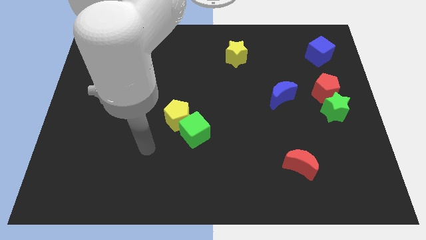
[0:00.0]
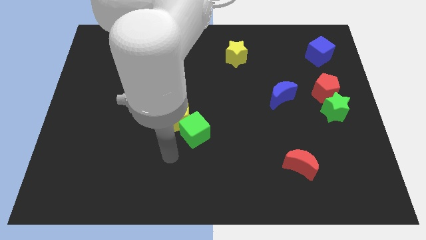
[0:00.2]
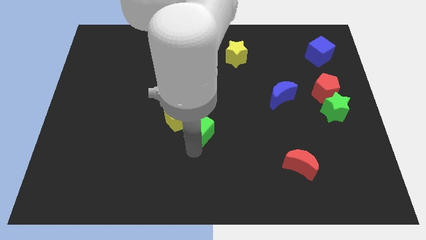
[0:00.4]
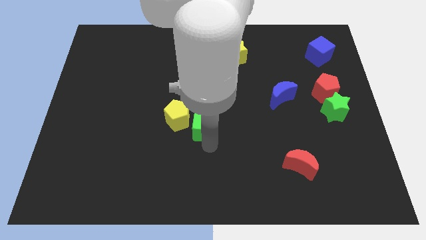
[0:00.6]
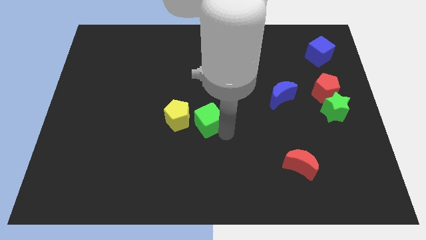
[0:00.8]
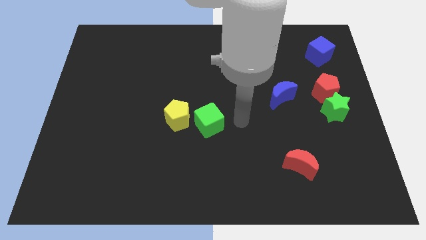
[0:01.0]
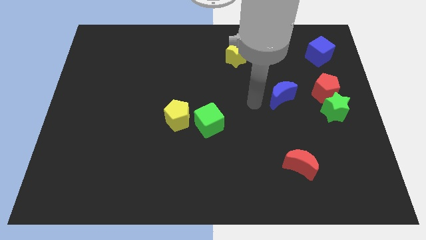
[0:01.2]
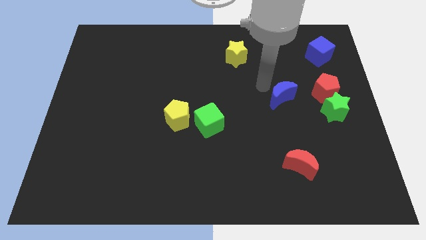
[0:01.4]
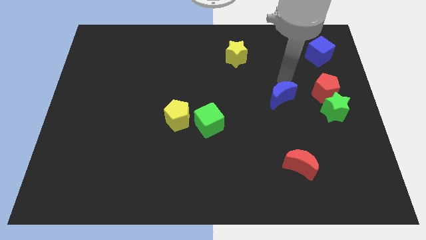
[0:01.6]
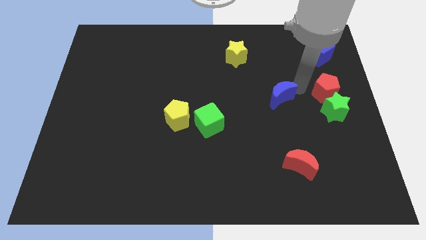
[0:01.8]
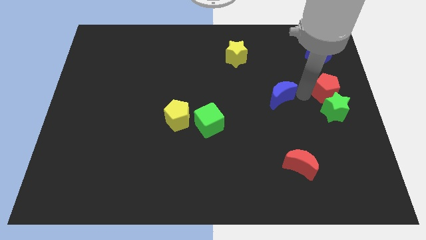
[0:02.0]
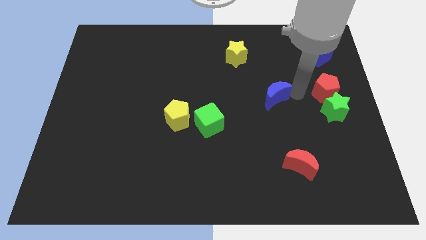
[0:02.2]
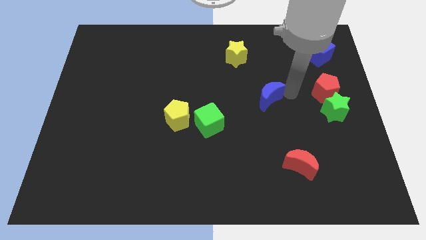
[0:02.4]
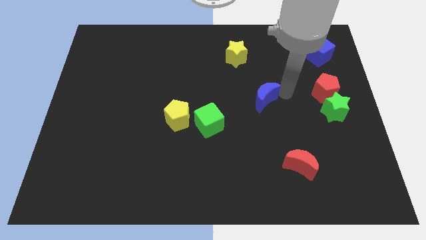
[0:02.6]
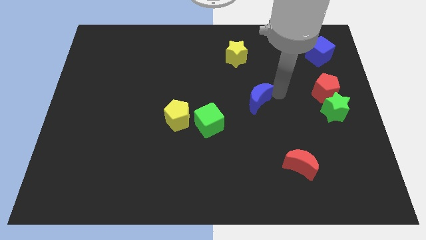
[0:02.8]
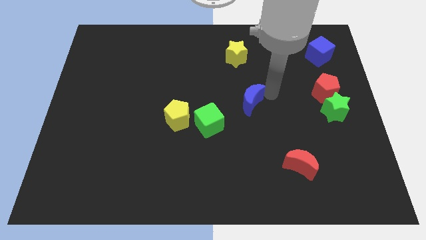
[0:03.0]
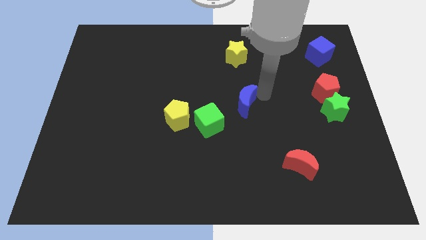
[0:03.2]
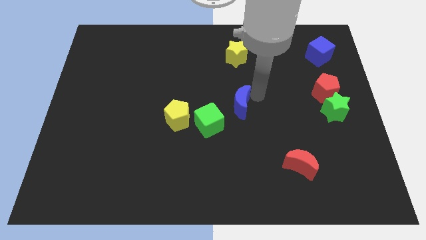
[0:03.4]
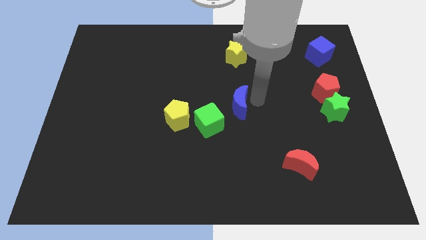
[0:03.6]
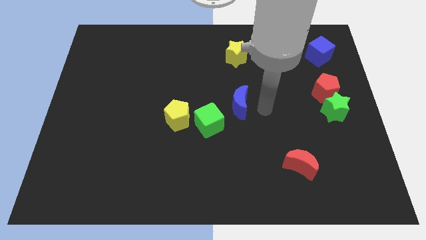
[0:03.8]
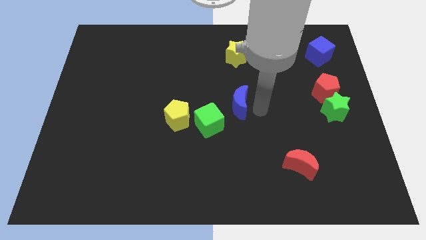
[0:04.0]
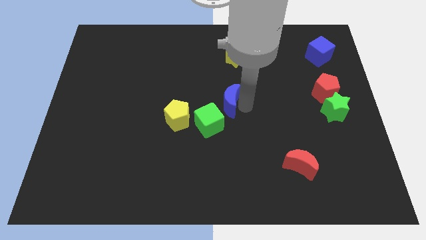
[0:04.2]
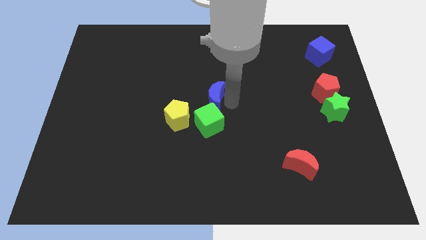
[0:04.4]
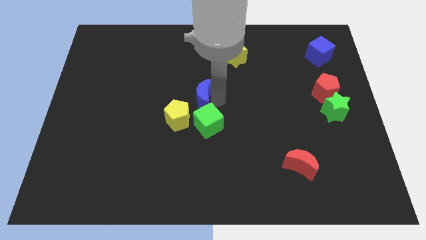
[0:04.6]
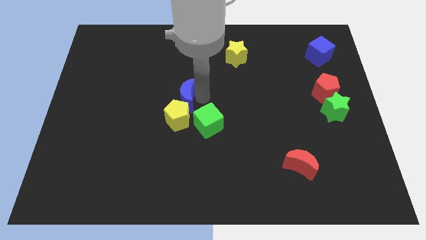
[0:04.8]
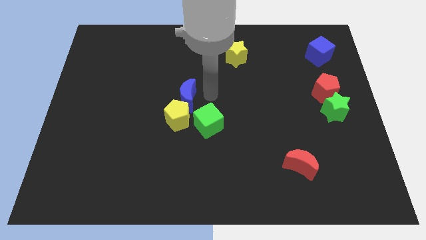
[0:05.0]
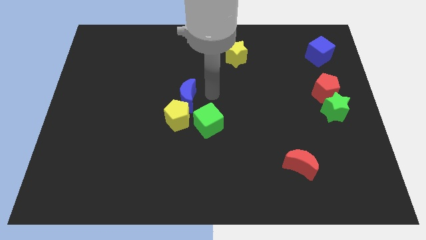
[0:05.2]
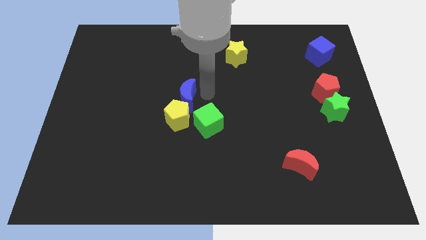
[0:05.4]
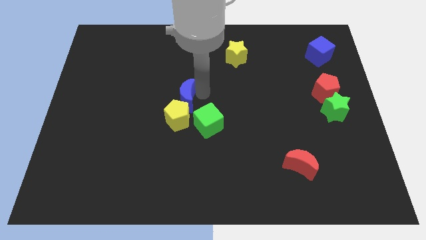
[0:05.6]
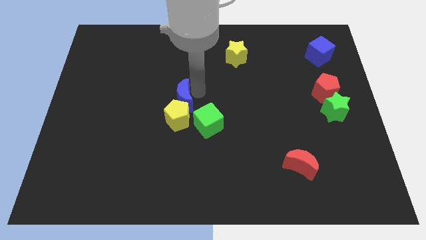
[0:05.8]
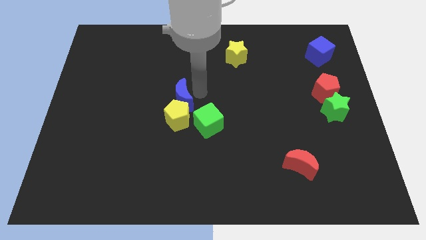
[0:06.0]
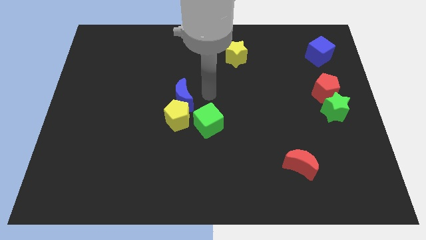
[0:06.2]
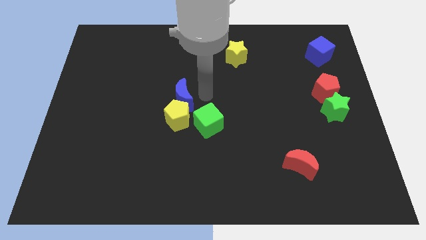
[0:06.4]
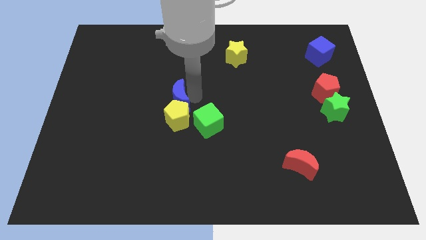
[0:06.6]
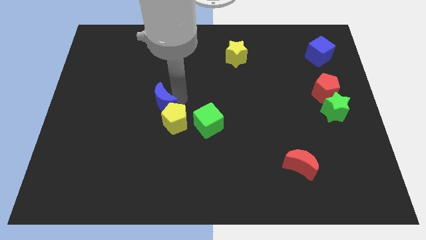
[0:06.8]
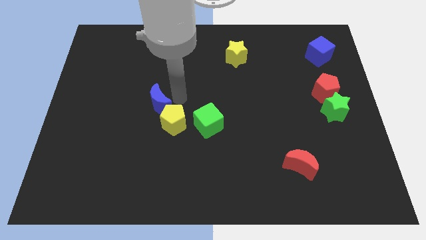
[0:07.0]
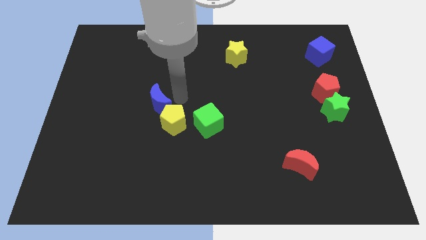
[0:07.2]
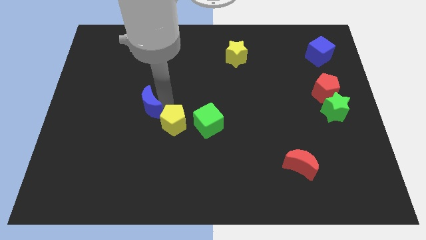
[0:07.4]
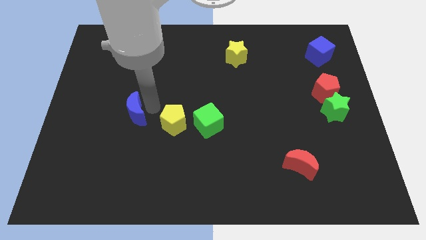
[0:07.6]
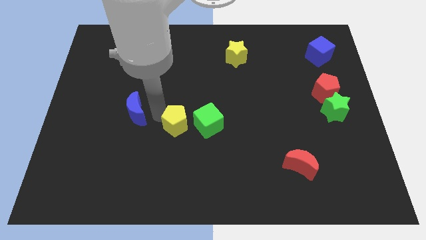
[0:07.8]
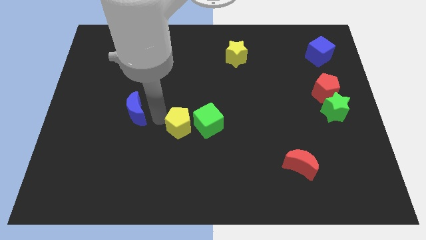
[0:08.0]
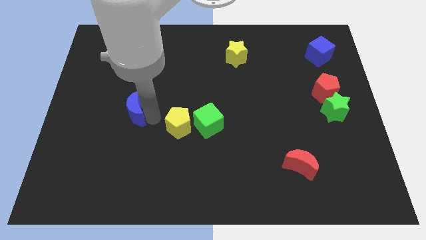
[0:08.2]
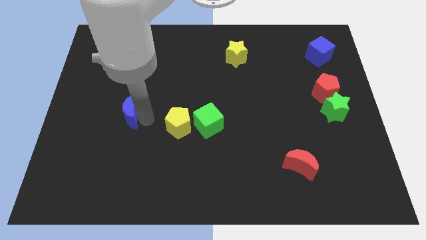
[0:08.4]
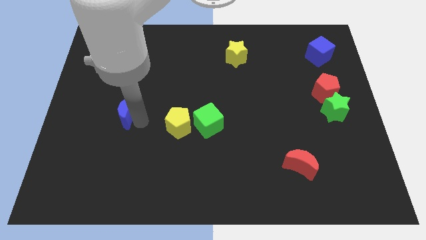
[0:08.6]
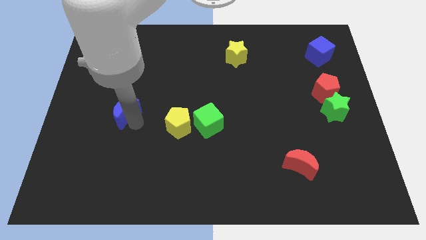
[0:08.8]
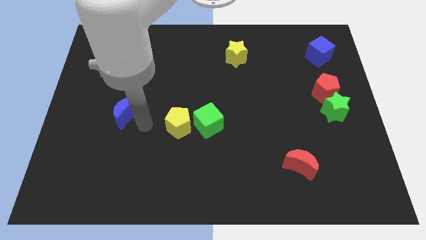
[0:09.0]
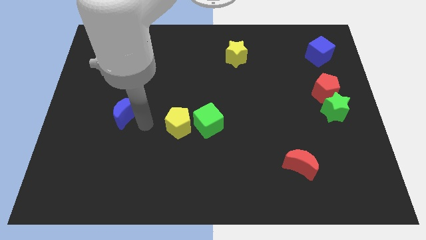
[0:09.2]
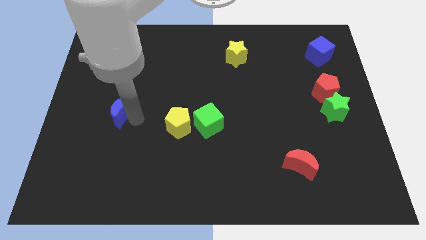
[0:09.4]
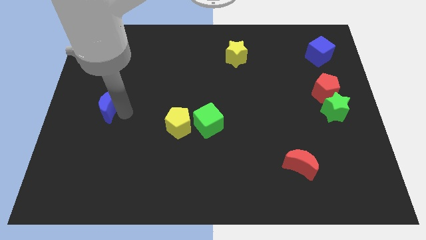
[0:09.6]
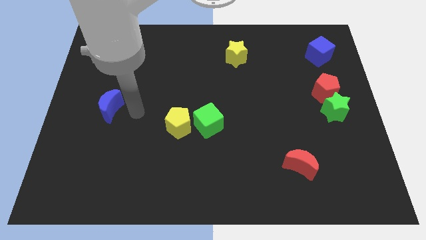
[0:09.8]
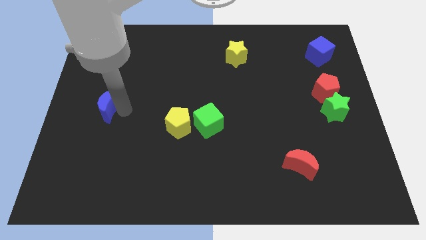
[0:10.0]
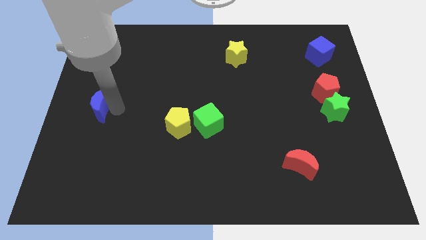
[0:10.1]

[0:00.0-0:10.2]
move the blue moon to the left side

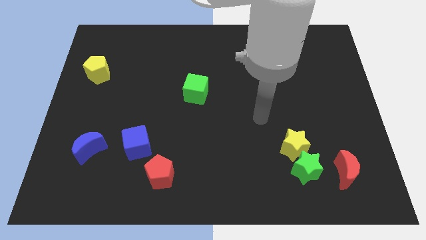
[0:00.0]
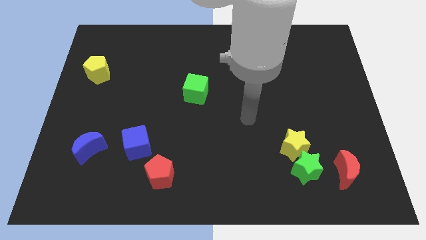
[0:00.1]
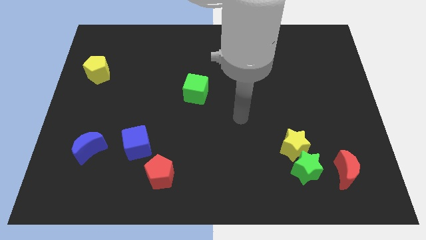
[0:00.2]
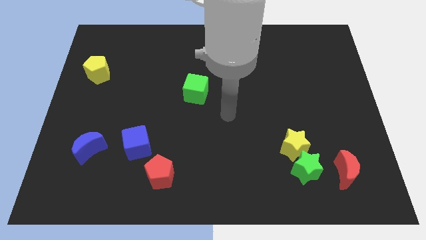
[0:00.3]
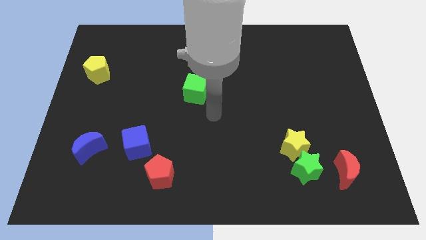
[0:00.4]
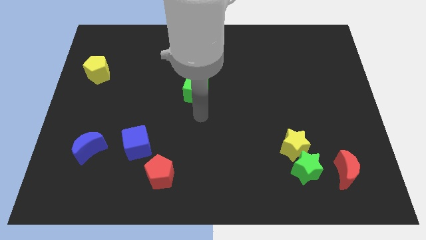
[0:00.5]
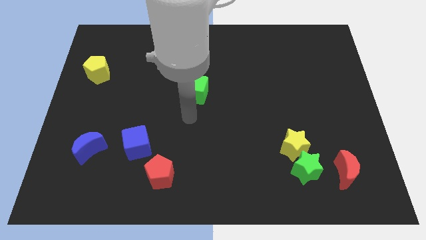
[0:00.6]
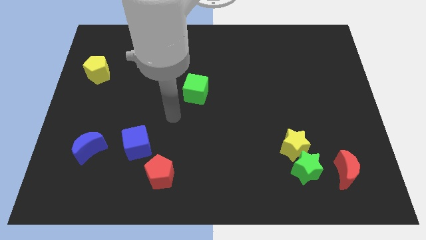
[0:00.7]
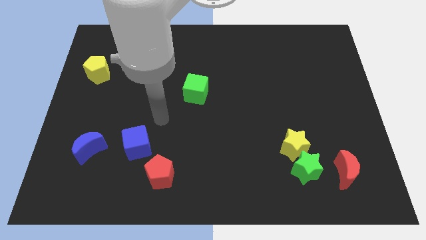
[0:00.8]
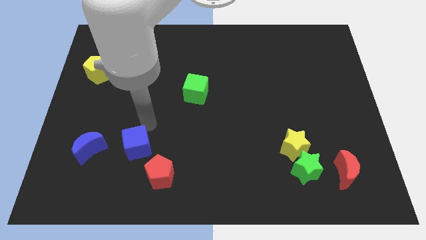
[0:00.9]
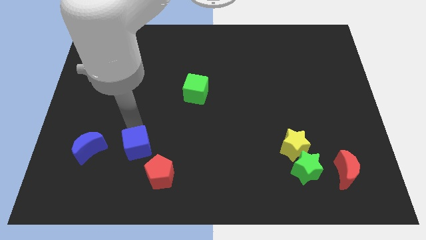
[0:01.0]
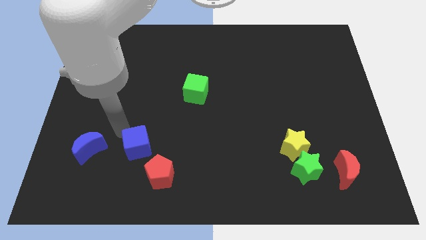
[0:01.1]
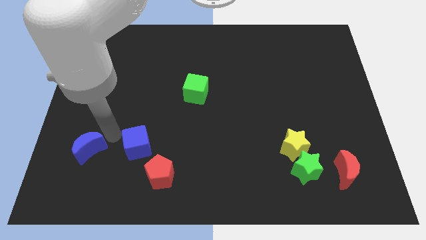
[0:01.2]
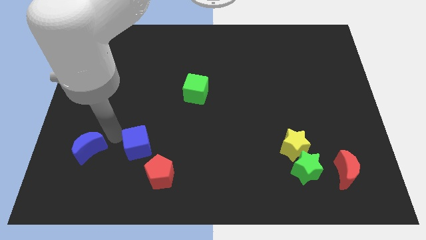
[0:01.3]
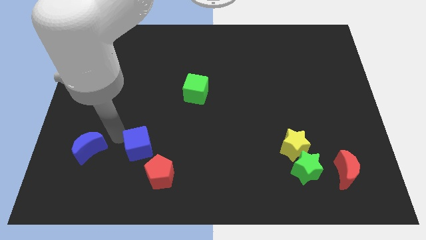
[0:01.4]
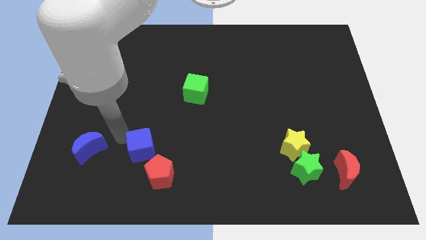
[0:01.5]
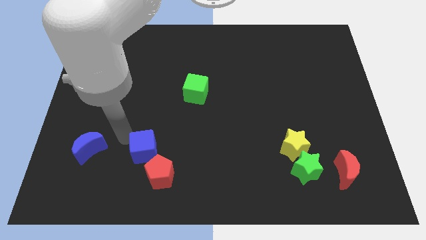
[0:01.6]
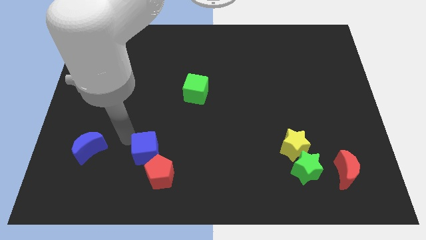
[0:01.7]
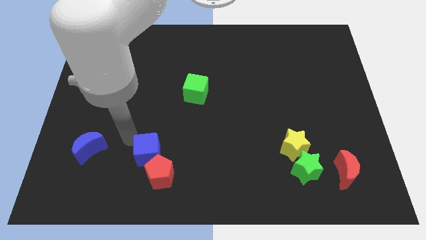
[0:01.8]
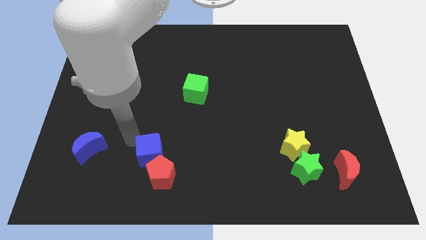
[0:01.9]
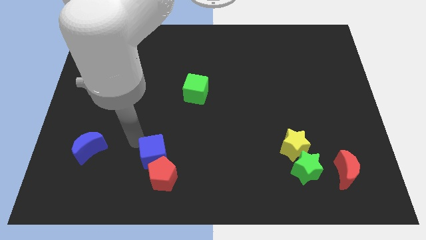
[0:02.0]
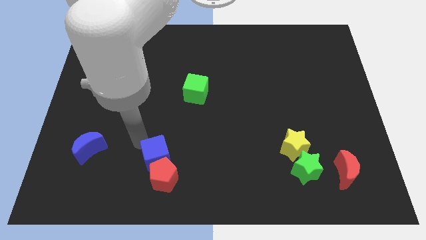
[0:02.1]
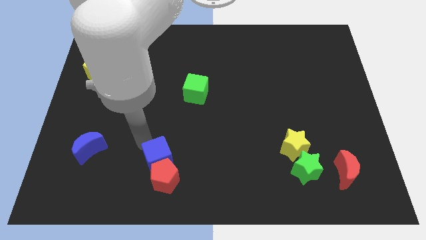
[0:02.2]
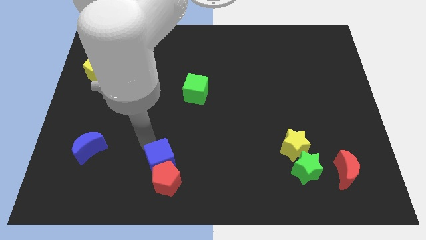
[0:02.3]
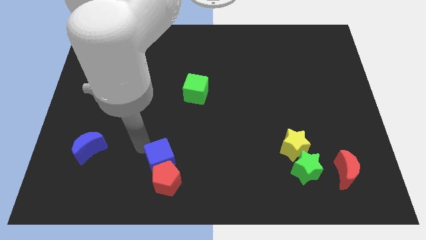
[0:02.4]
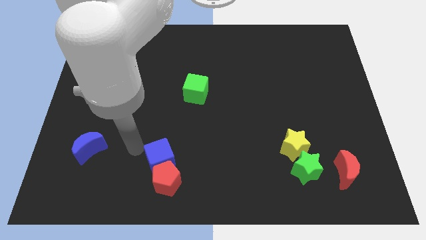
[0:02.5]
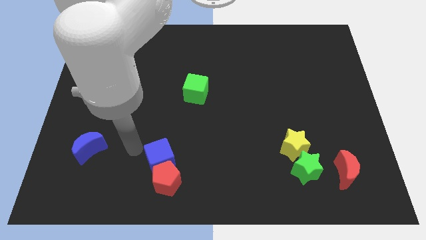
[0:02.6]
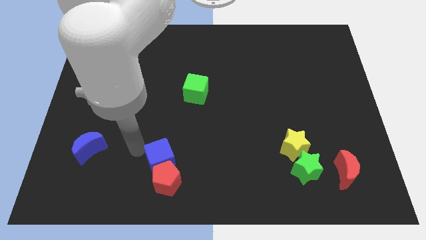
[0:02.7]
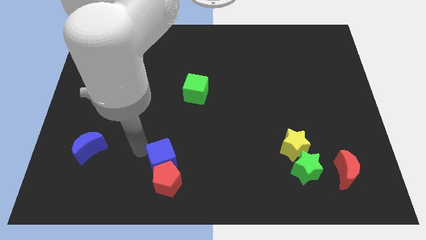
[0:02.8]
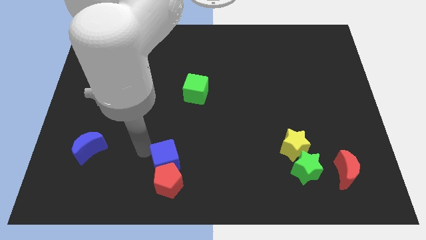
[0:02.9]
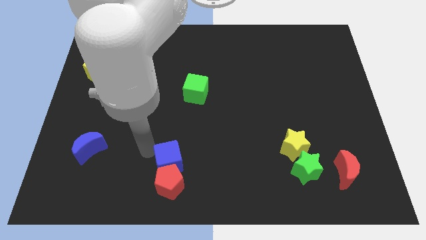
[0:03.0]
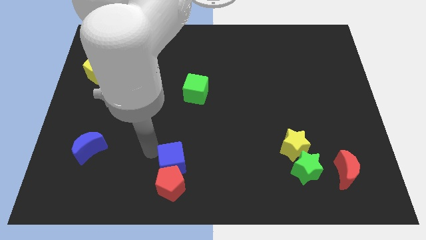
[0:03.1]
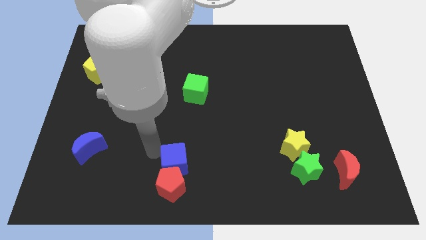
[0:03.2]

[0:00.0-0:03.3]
put the blue cube to the bottom

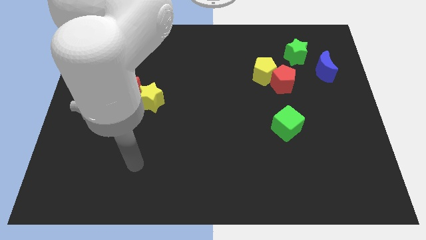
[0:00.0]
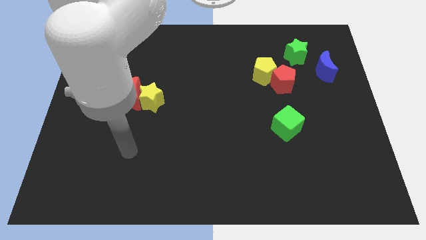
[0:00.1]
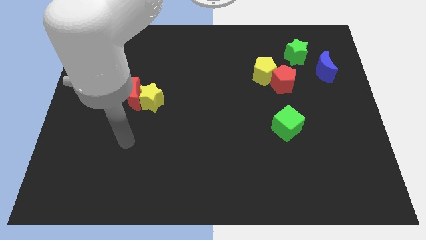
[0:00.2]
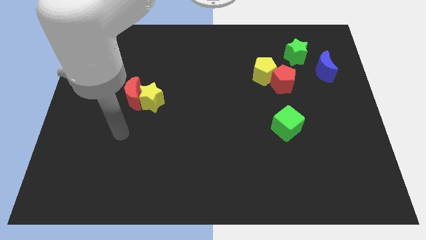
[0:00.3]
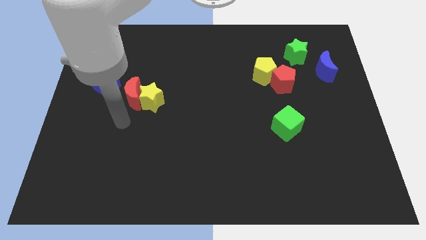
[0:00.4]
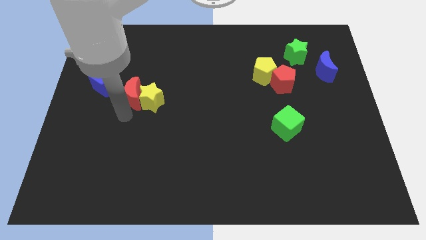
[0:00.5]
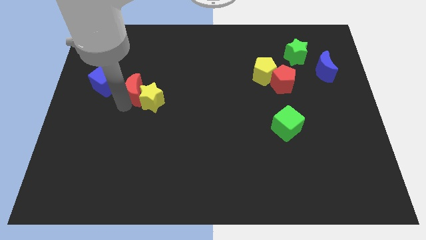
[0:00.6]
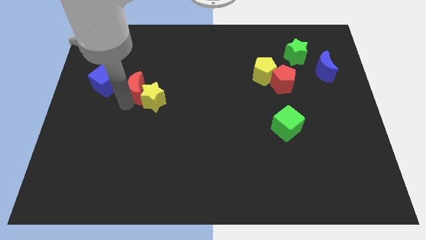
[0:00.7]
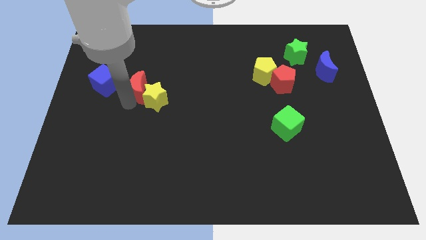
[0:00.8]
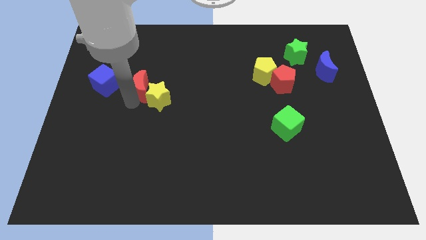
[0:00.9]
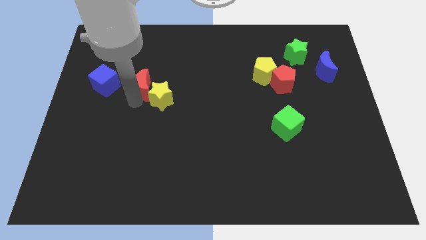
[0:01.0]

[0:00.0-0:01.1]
slide the yellow star to the middle of the board
